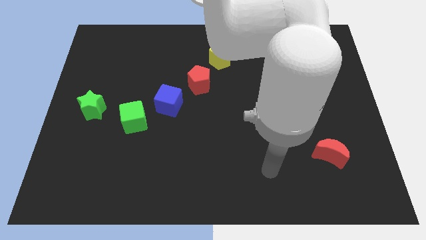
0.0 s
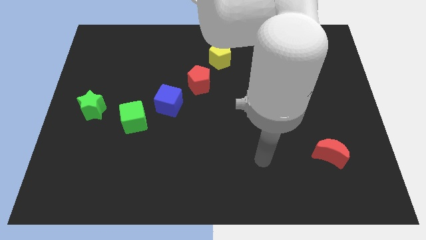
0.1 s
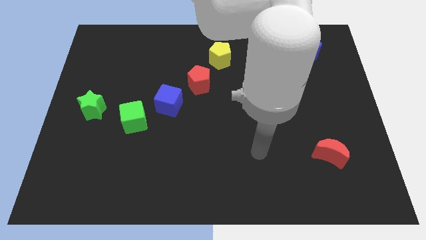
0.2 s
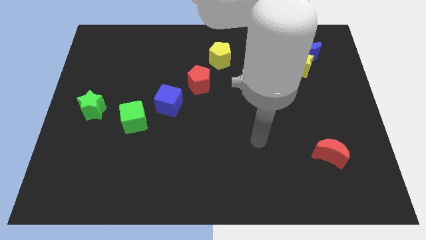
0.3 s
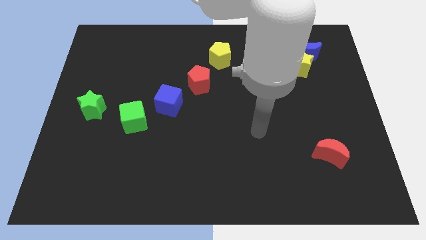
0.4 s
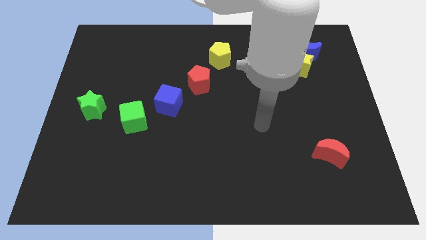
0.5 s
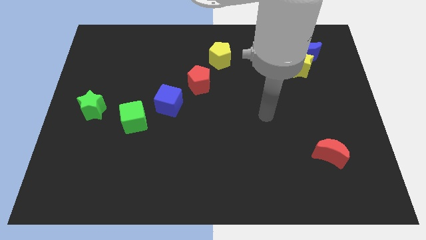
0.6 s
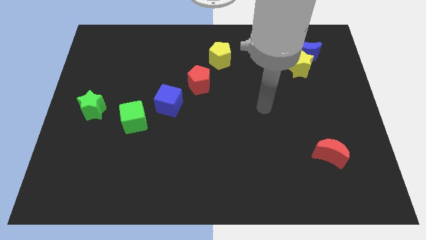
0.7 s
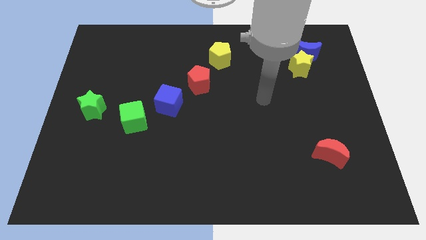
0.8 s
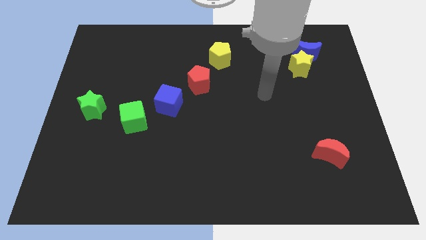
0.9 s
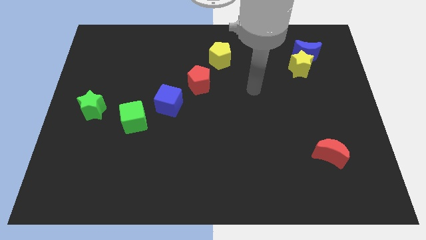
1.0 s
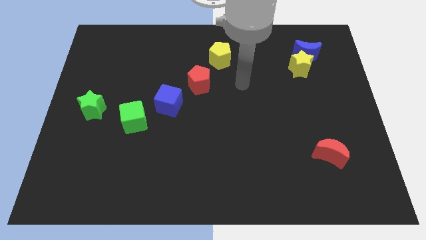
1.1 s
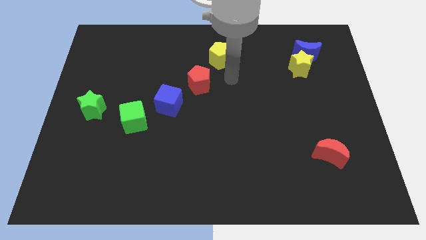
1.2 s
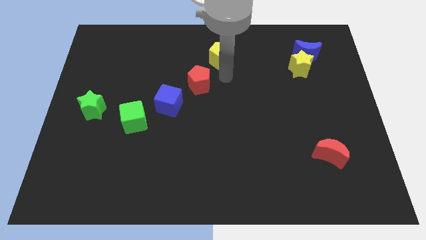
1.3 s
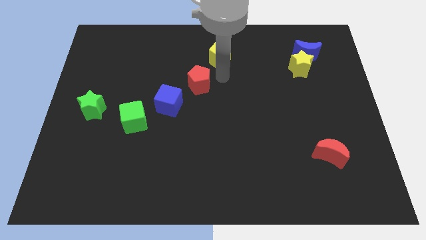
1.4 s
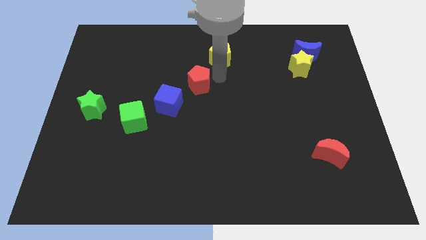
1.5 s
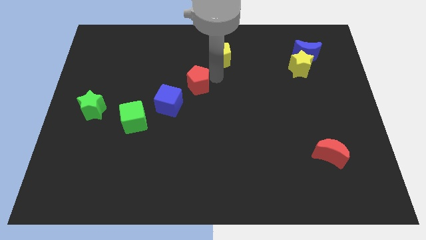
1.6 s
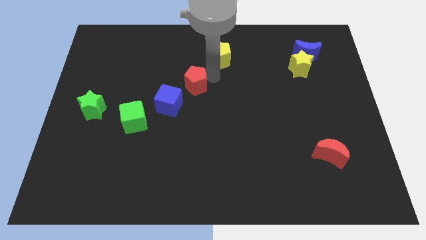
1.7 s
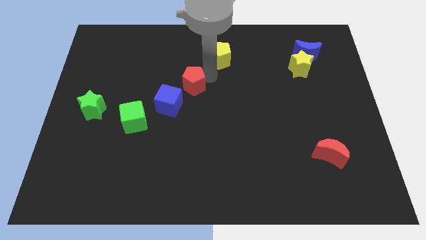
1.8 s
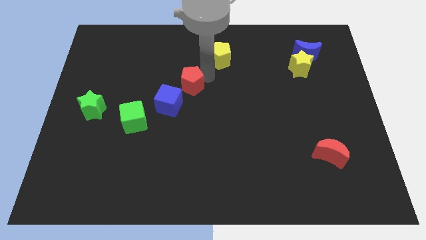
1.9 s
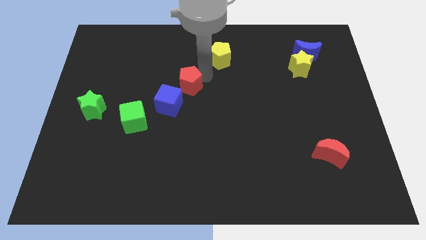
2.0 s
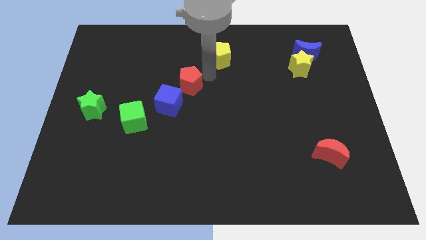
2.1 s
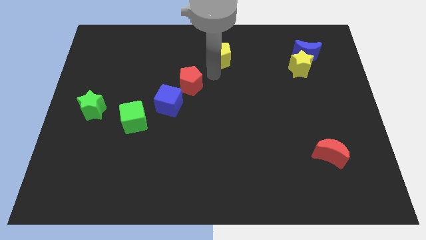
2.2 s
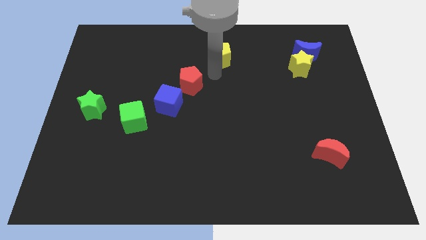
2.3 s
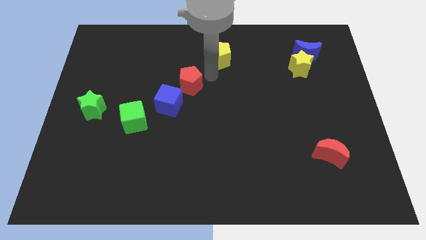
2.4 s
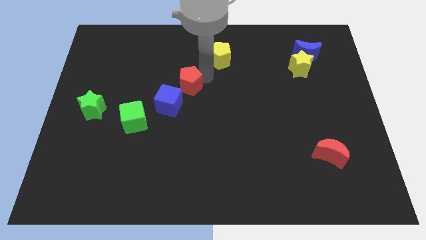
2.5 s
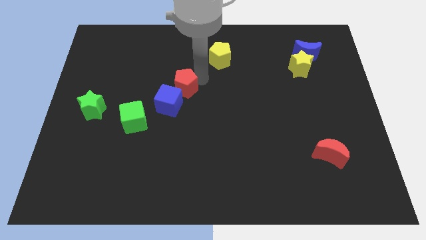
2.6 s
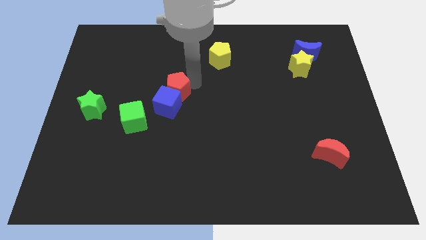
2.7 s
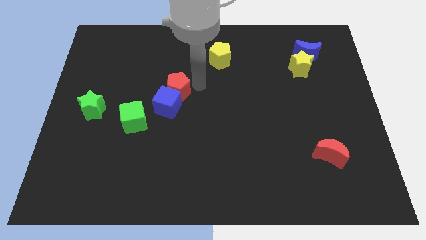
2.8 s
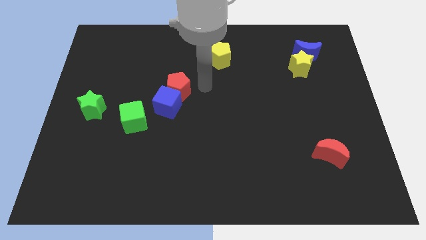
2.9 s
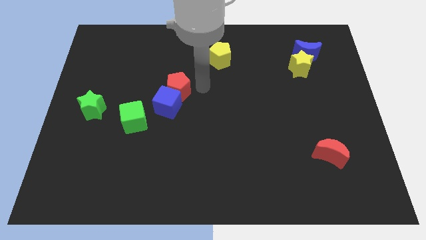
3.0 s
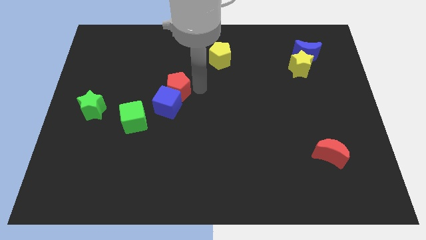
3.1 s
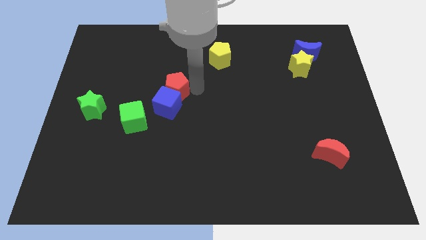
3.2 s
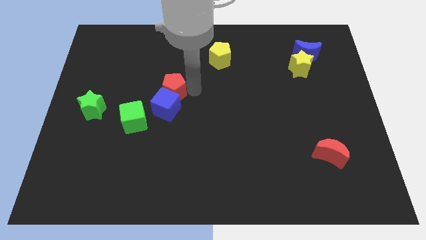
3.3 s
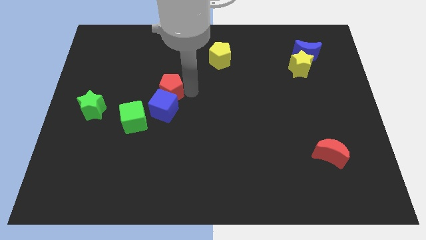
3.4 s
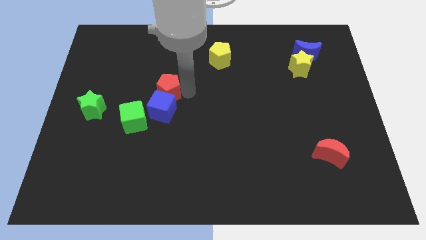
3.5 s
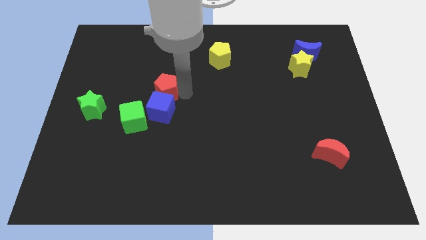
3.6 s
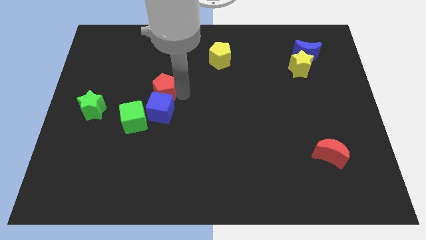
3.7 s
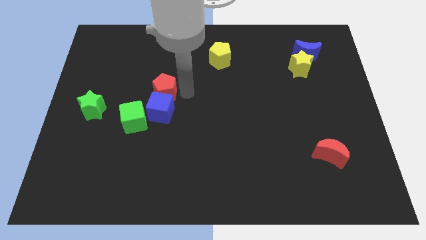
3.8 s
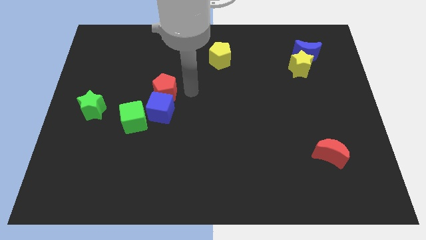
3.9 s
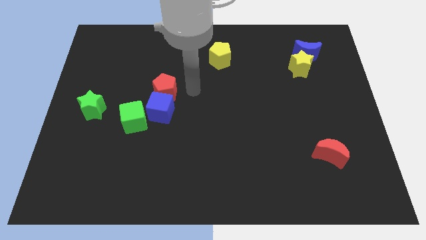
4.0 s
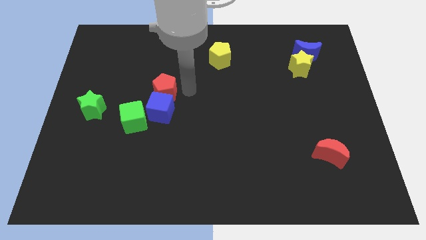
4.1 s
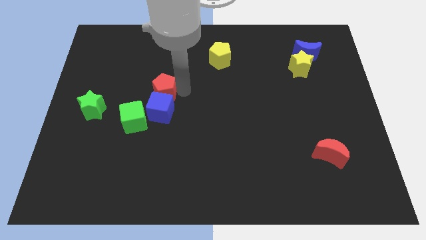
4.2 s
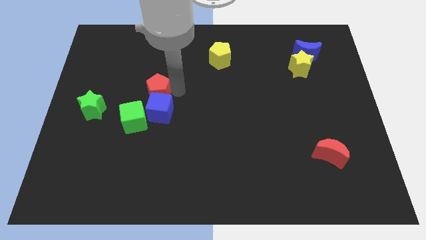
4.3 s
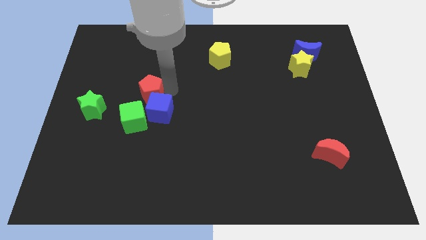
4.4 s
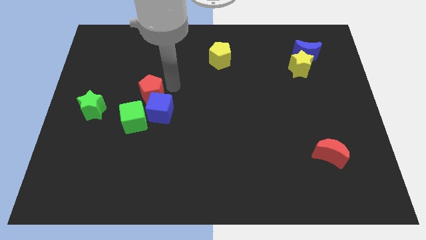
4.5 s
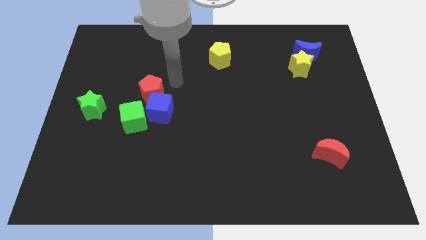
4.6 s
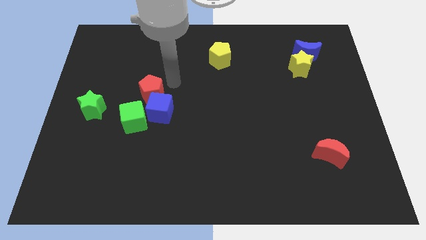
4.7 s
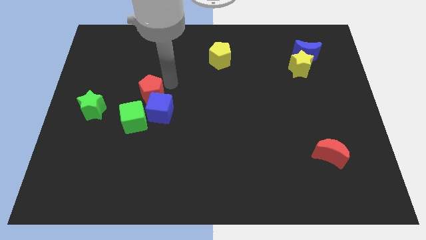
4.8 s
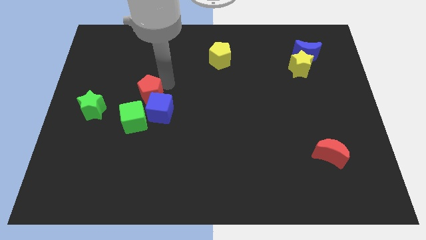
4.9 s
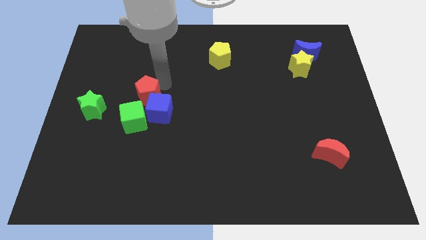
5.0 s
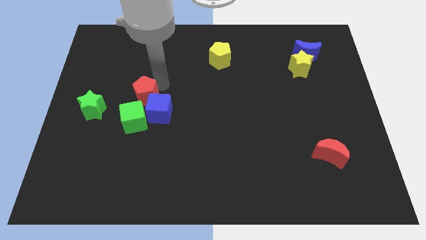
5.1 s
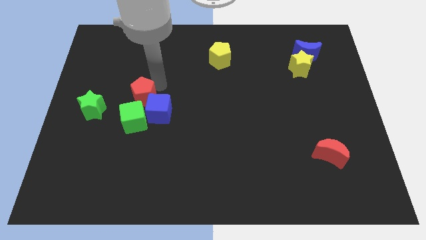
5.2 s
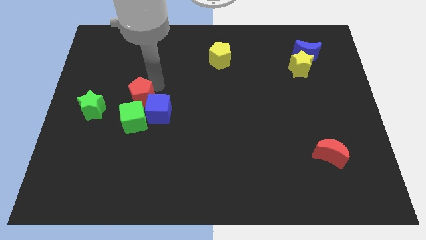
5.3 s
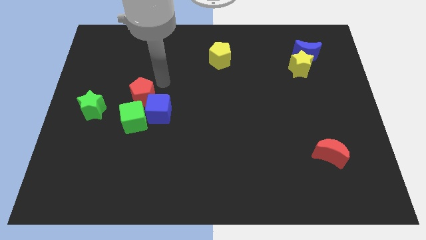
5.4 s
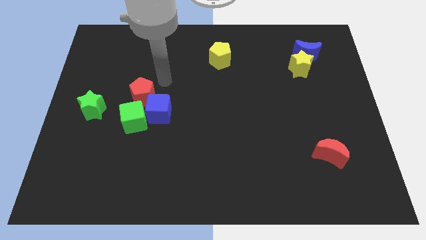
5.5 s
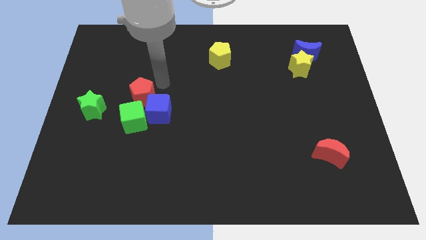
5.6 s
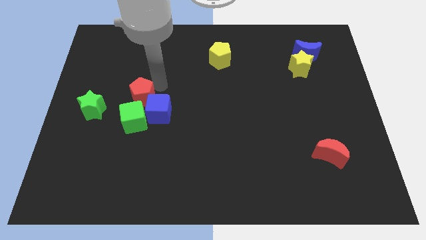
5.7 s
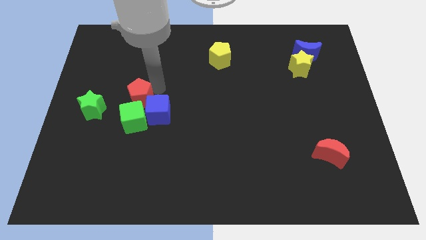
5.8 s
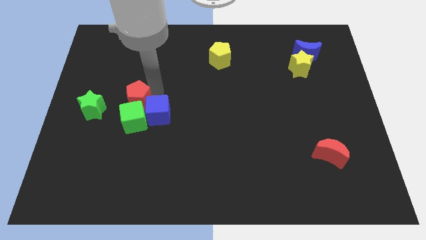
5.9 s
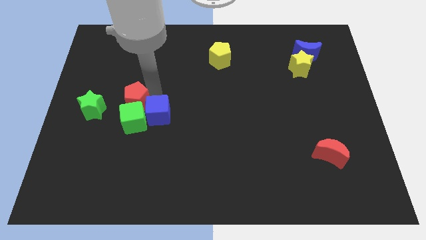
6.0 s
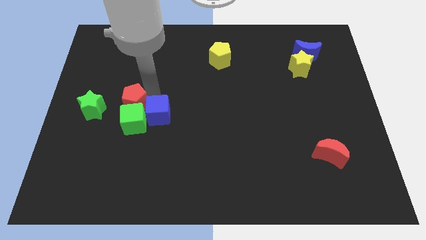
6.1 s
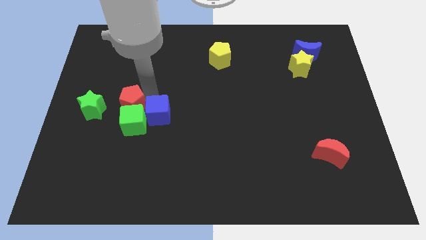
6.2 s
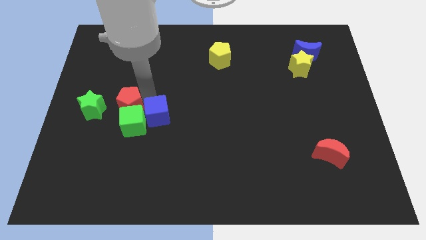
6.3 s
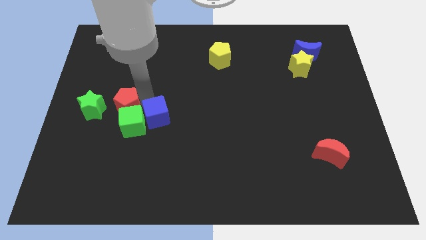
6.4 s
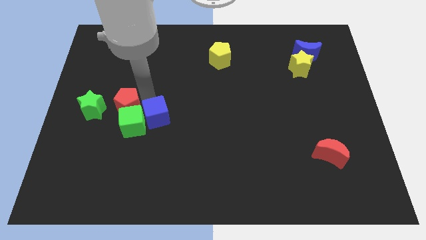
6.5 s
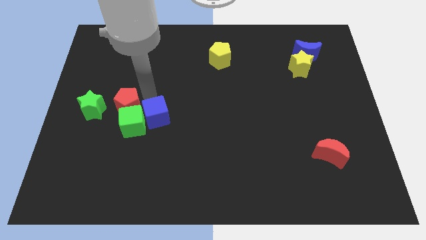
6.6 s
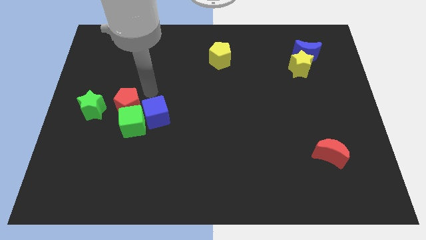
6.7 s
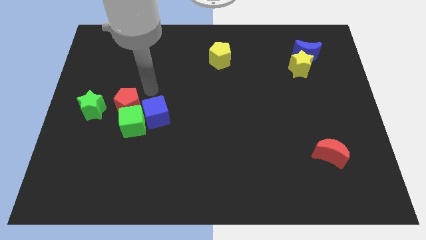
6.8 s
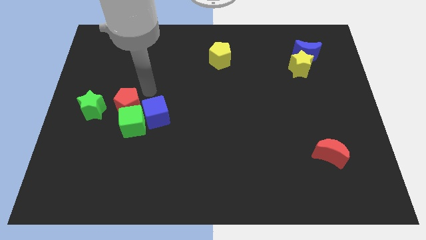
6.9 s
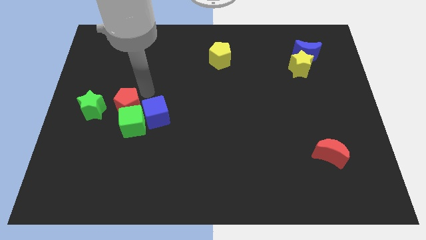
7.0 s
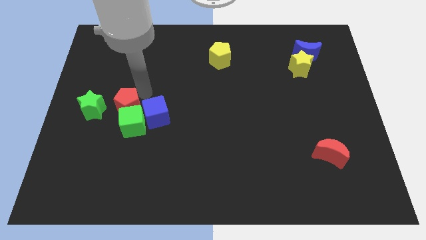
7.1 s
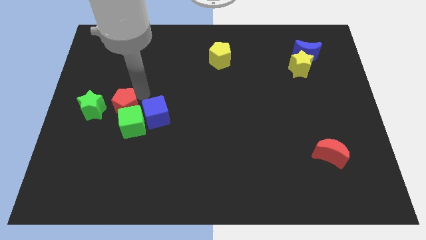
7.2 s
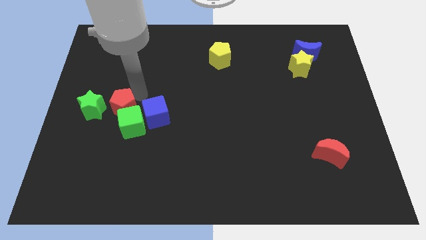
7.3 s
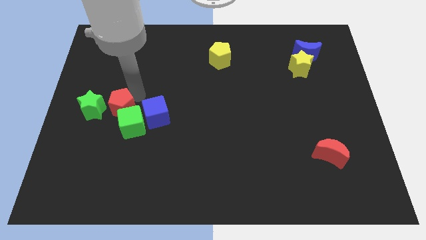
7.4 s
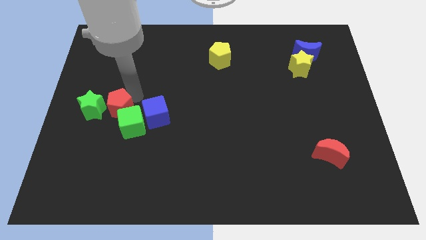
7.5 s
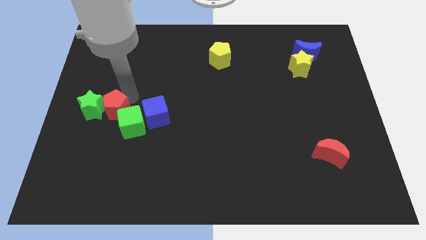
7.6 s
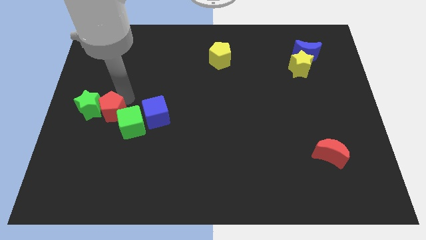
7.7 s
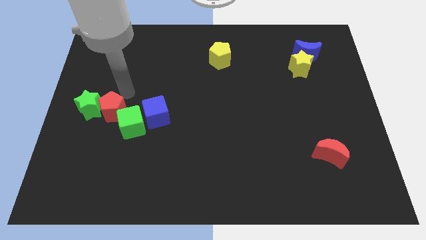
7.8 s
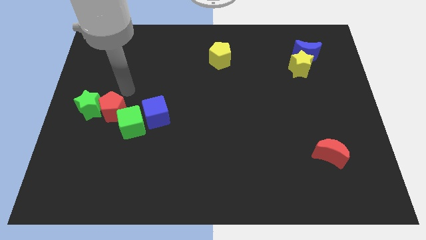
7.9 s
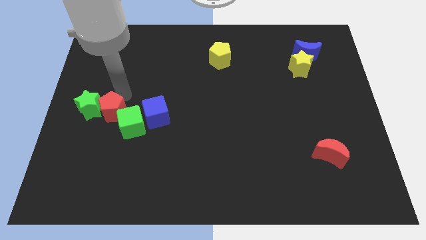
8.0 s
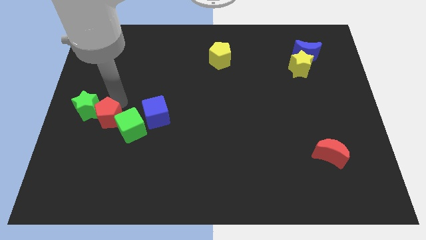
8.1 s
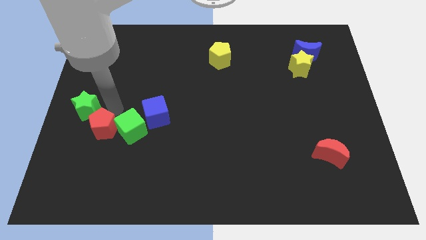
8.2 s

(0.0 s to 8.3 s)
slide the red pentagon down and then to the left
